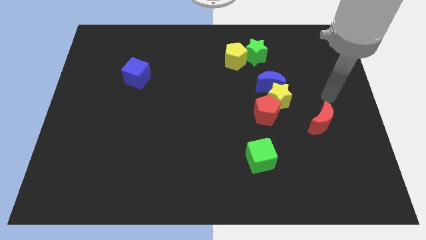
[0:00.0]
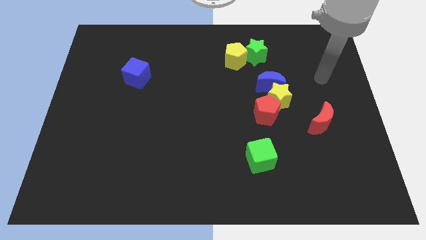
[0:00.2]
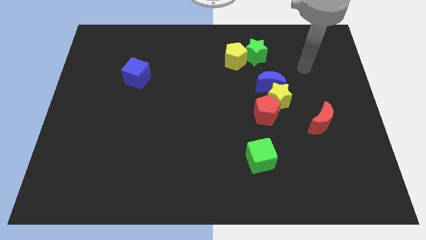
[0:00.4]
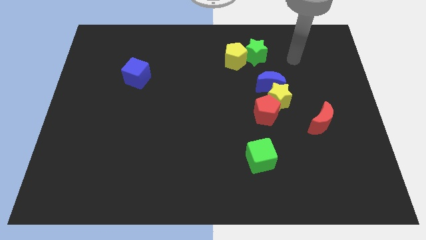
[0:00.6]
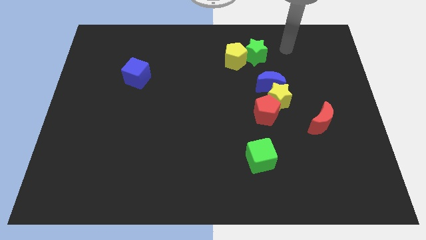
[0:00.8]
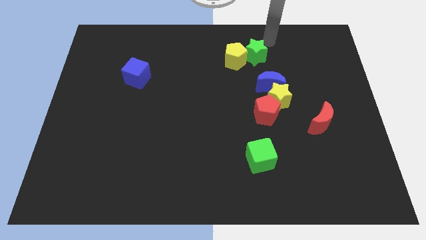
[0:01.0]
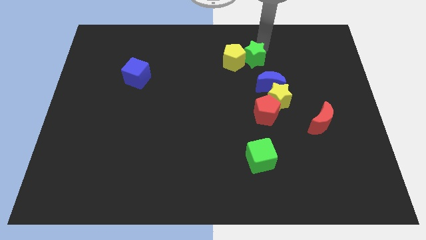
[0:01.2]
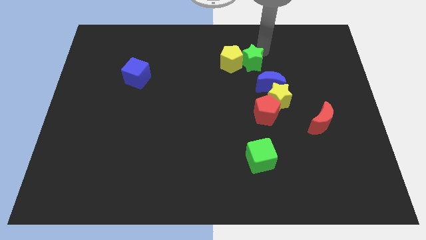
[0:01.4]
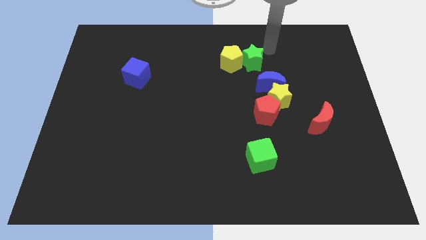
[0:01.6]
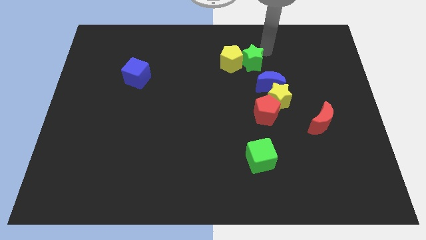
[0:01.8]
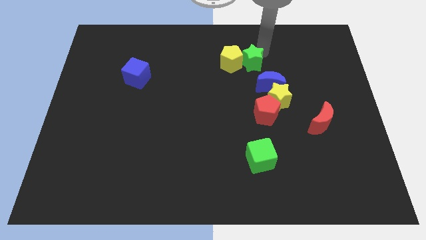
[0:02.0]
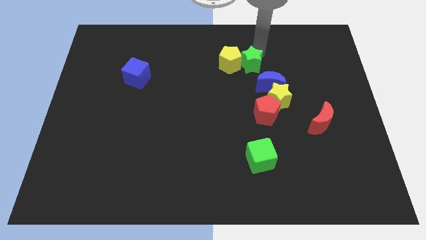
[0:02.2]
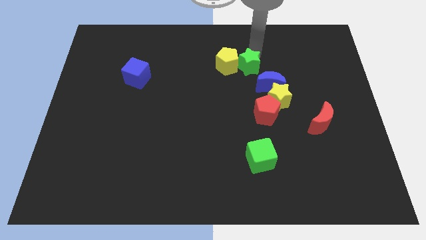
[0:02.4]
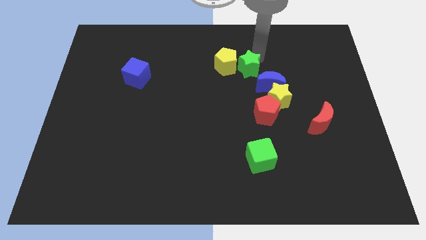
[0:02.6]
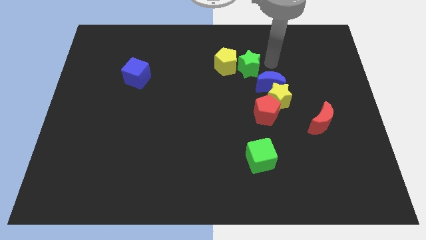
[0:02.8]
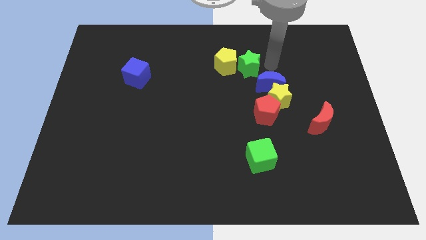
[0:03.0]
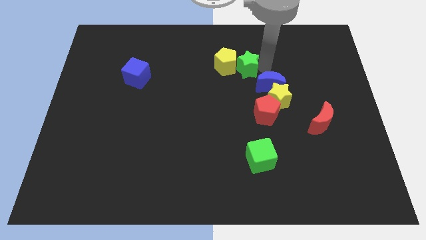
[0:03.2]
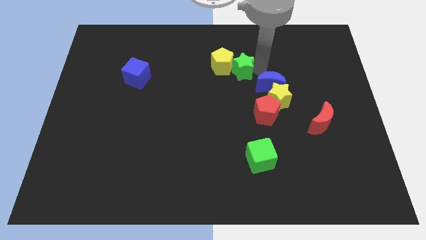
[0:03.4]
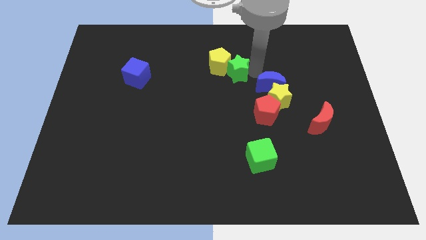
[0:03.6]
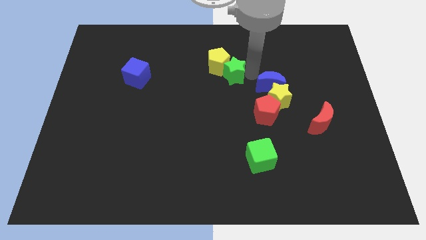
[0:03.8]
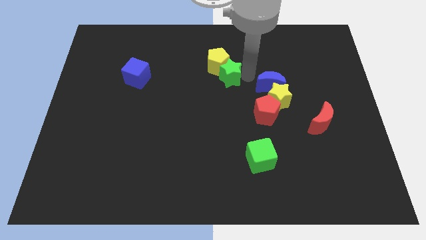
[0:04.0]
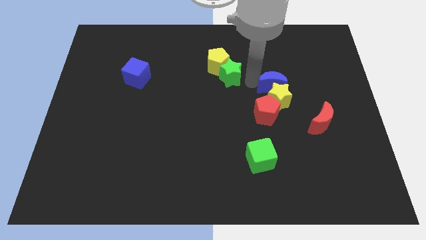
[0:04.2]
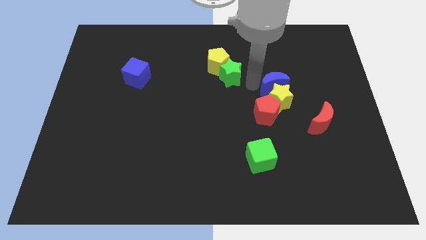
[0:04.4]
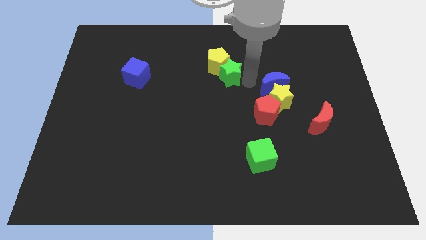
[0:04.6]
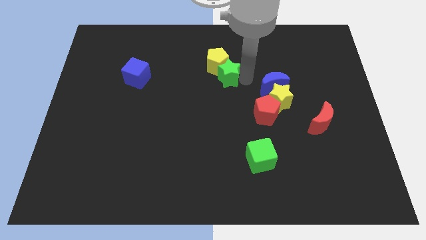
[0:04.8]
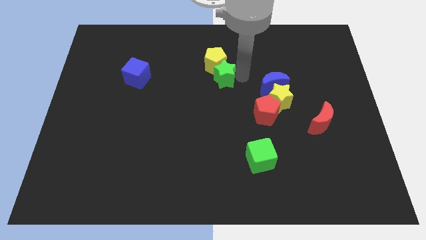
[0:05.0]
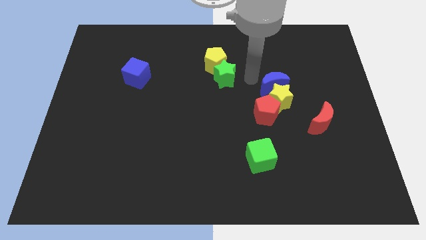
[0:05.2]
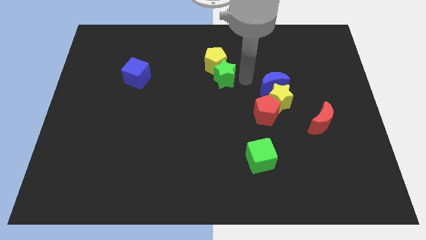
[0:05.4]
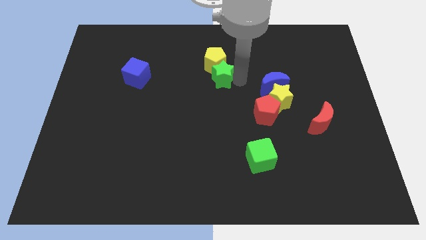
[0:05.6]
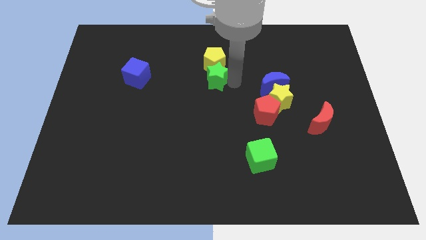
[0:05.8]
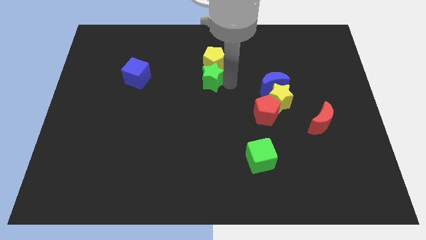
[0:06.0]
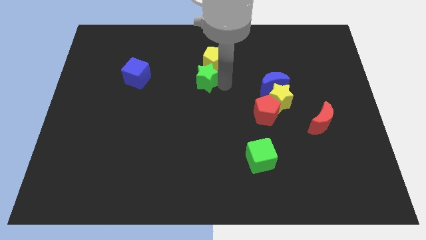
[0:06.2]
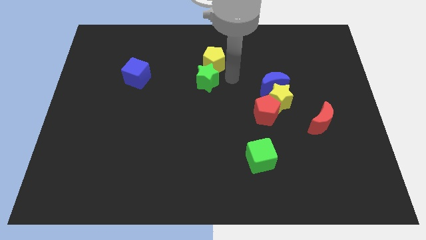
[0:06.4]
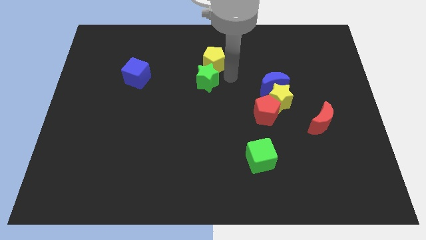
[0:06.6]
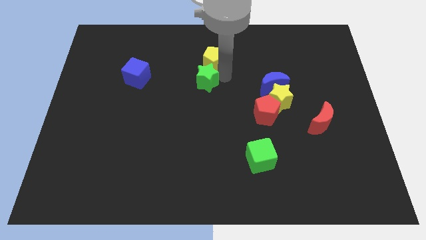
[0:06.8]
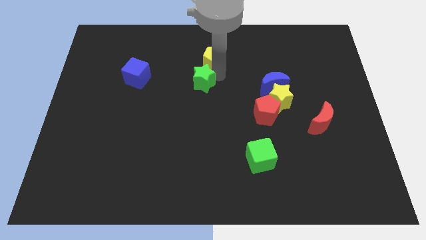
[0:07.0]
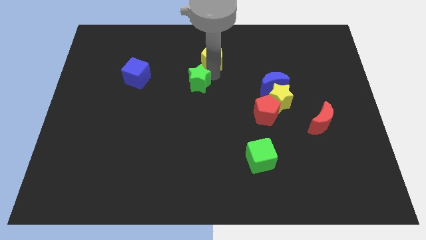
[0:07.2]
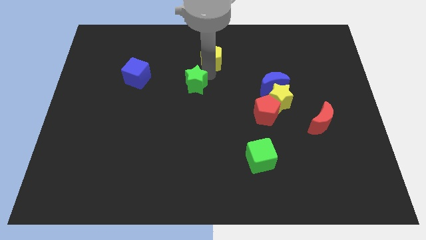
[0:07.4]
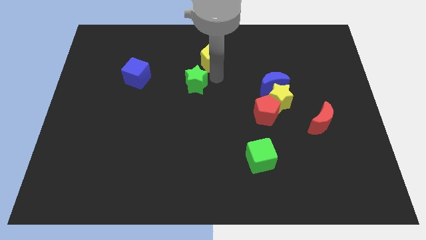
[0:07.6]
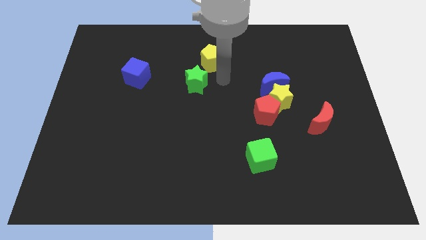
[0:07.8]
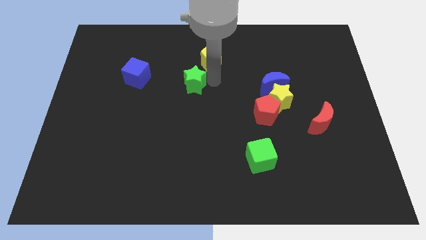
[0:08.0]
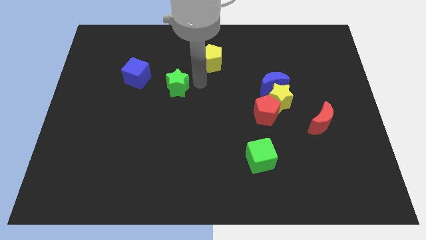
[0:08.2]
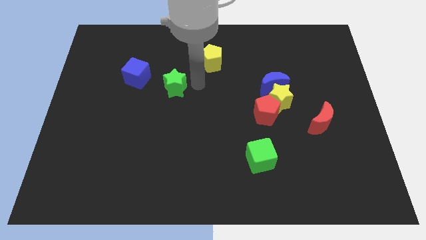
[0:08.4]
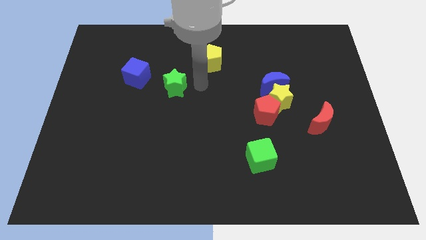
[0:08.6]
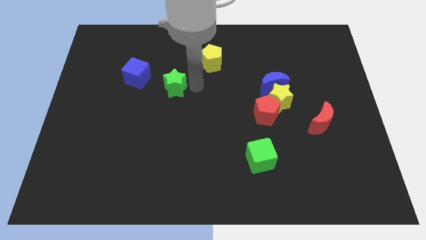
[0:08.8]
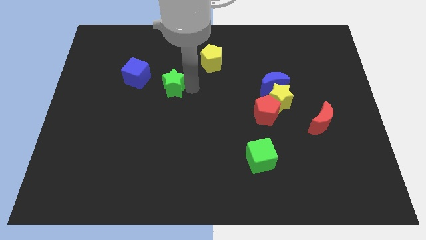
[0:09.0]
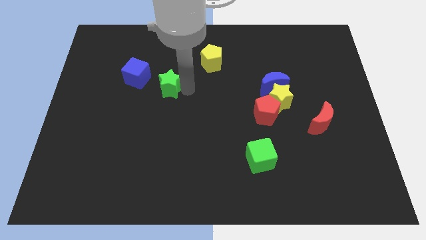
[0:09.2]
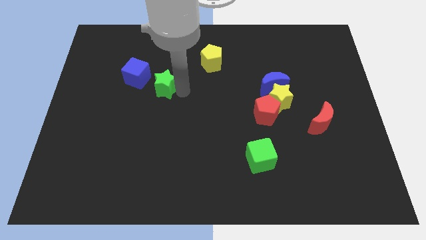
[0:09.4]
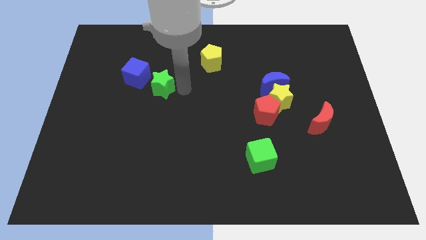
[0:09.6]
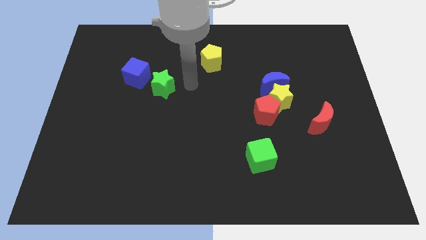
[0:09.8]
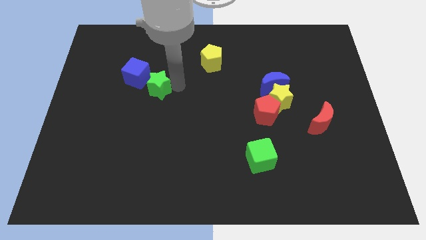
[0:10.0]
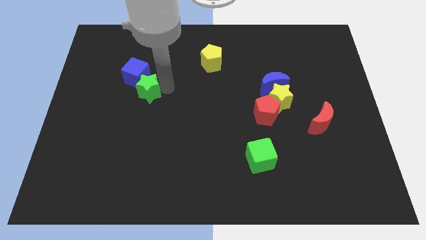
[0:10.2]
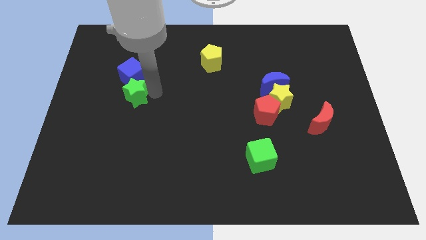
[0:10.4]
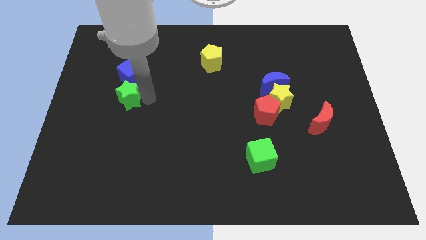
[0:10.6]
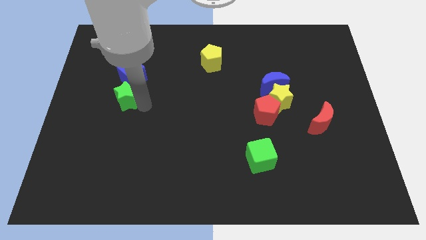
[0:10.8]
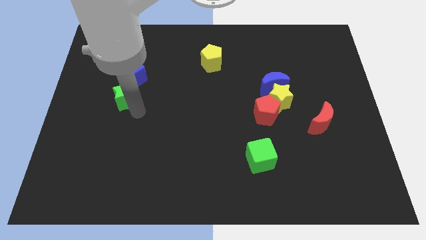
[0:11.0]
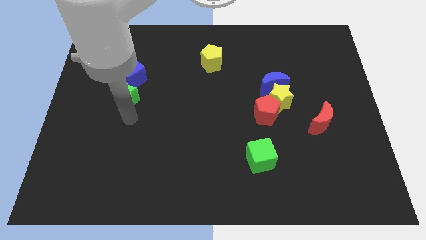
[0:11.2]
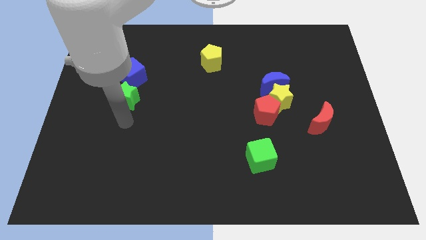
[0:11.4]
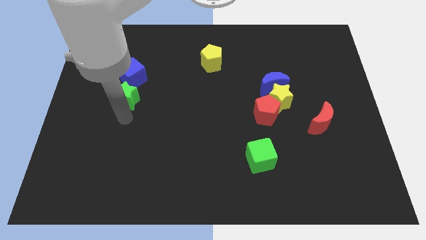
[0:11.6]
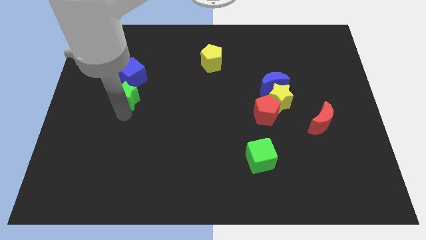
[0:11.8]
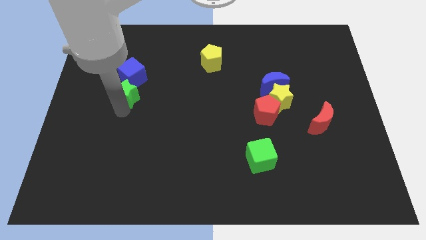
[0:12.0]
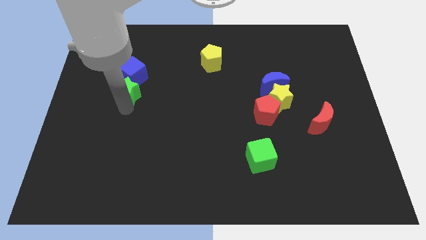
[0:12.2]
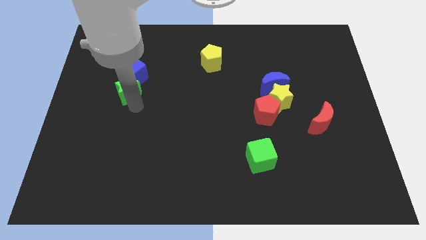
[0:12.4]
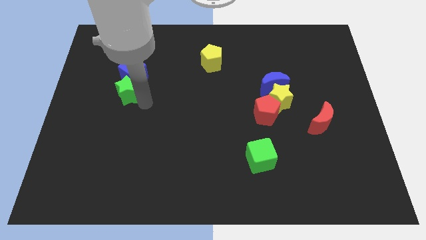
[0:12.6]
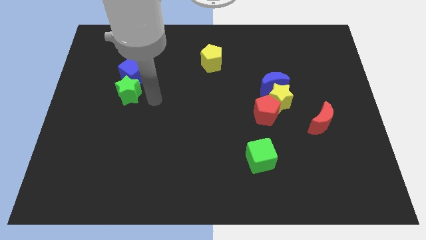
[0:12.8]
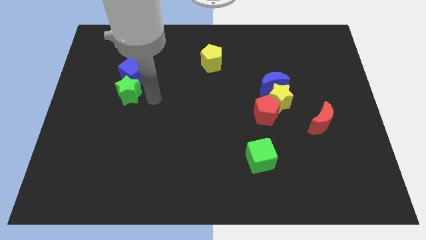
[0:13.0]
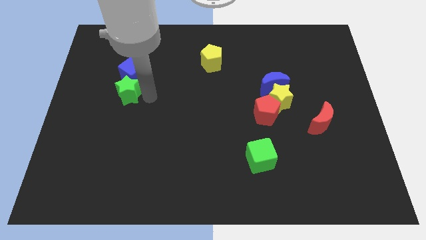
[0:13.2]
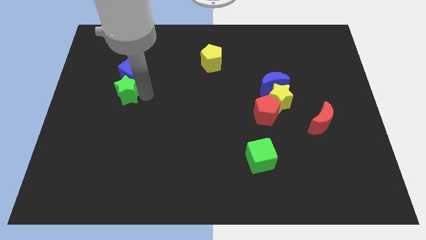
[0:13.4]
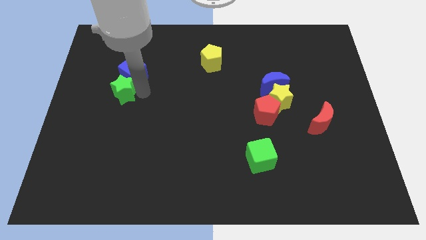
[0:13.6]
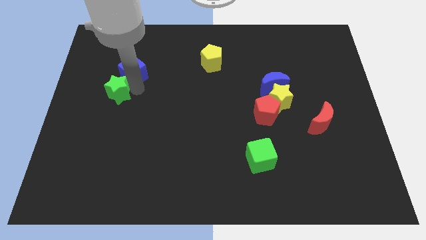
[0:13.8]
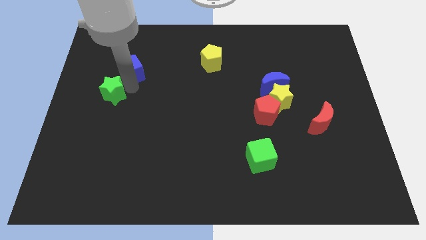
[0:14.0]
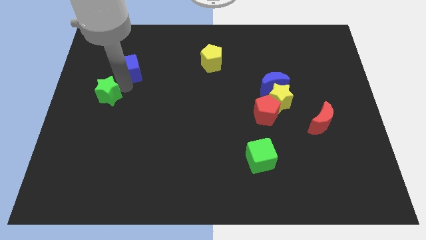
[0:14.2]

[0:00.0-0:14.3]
move the green star to the center left
